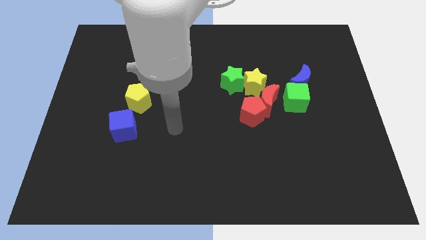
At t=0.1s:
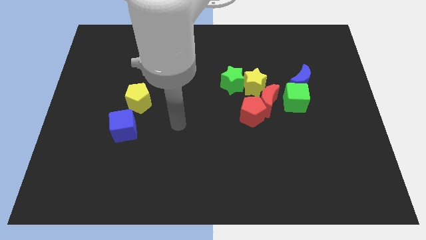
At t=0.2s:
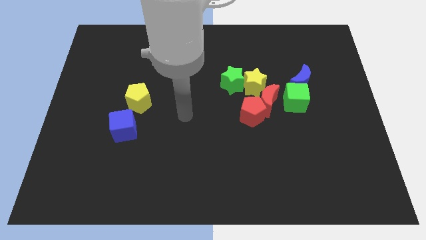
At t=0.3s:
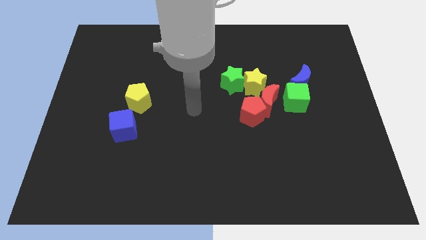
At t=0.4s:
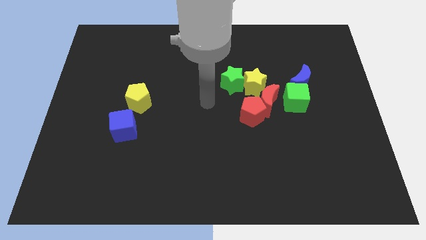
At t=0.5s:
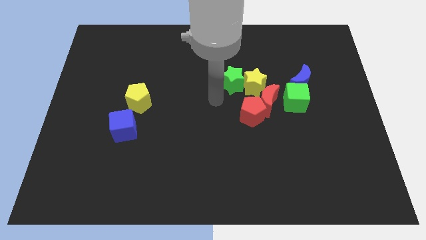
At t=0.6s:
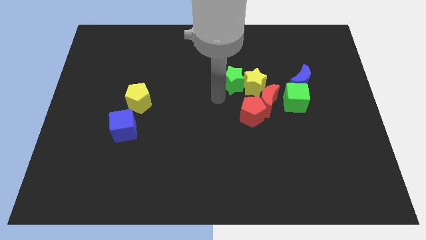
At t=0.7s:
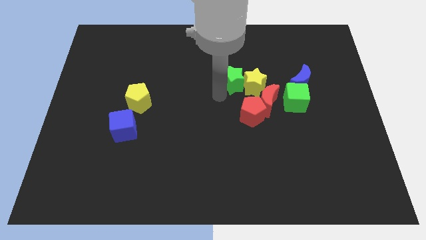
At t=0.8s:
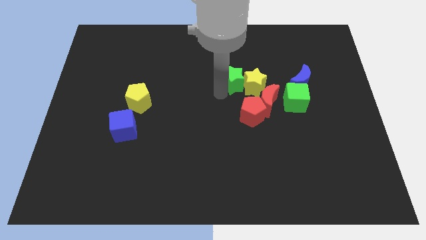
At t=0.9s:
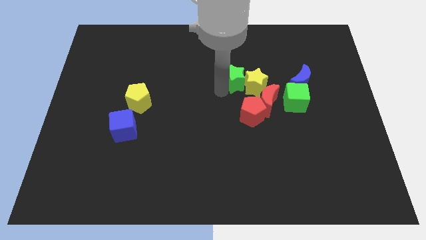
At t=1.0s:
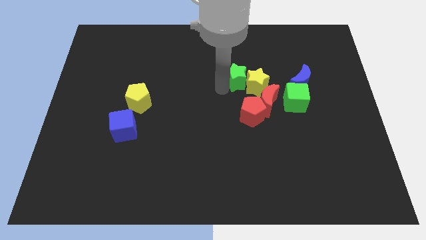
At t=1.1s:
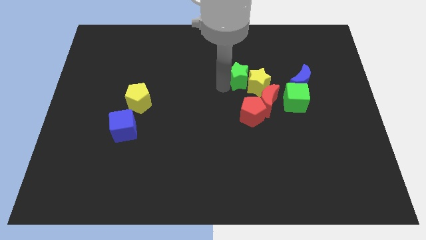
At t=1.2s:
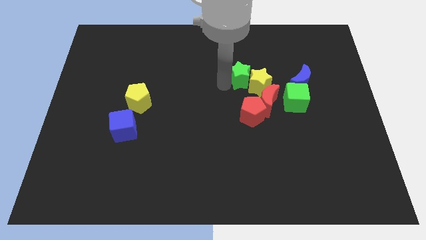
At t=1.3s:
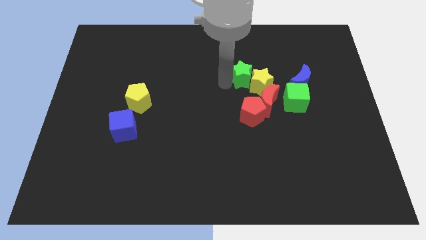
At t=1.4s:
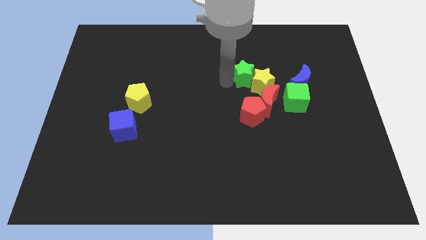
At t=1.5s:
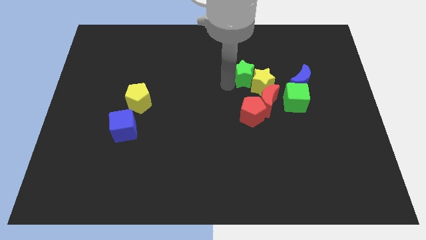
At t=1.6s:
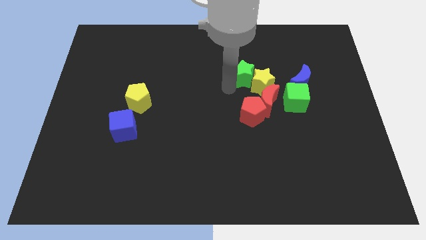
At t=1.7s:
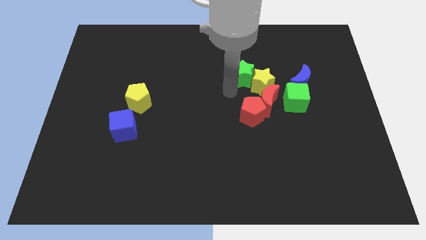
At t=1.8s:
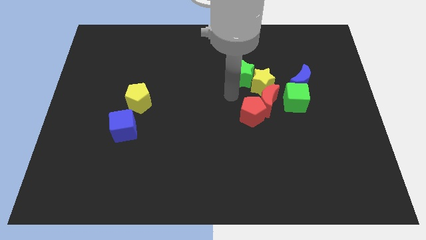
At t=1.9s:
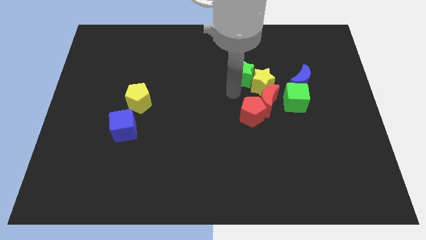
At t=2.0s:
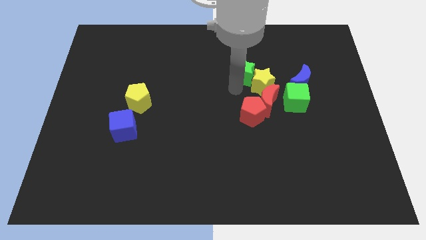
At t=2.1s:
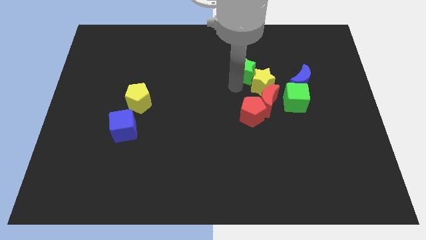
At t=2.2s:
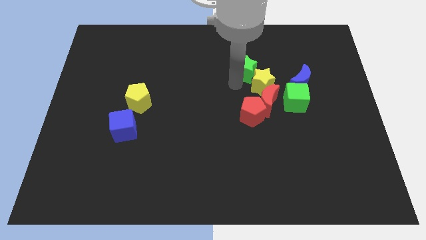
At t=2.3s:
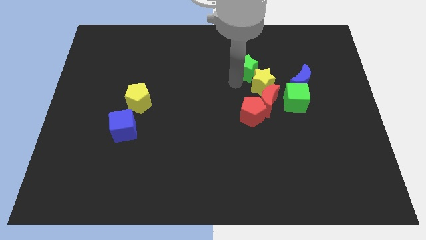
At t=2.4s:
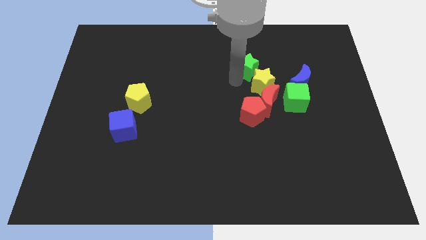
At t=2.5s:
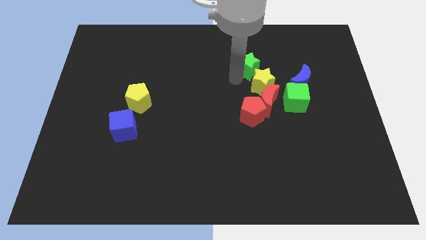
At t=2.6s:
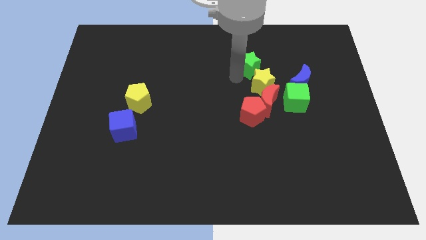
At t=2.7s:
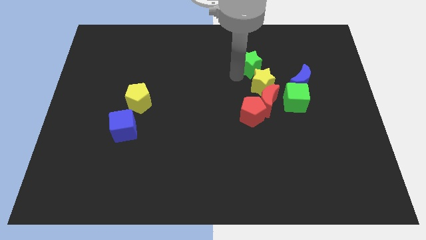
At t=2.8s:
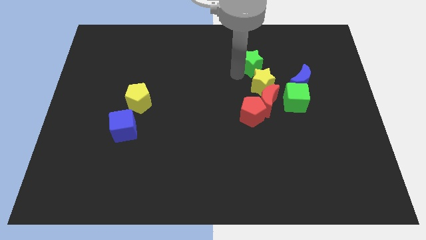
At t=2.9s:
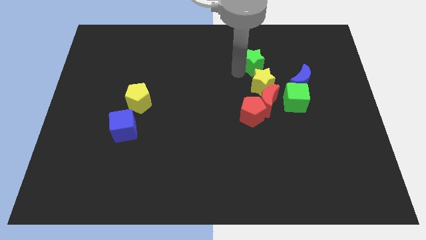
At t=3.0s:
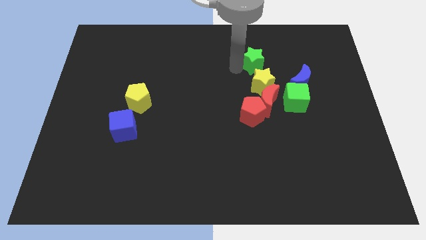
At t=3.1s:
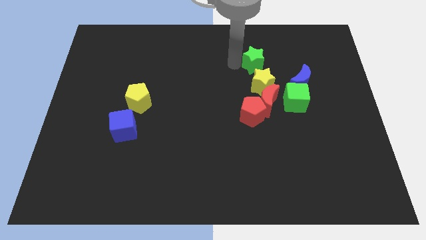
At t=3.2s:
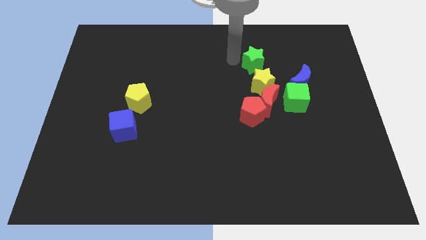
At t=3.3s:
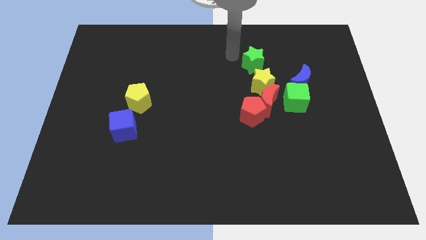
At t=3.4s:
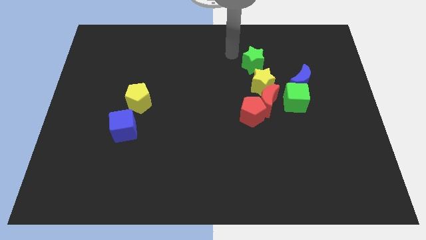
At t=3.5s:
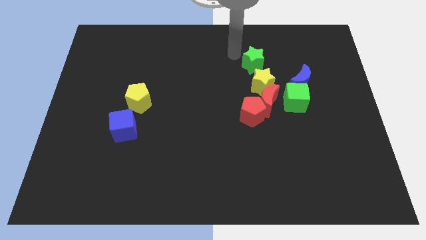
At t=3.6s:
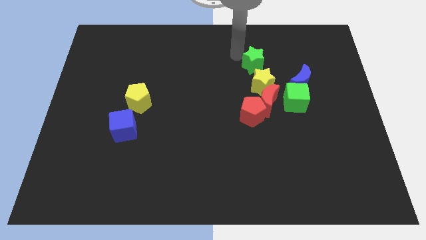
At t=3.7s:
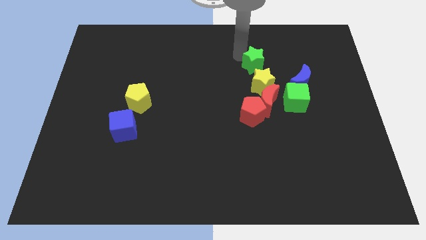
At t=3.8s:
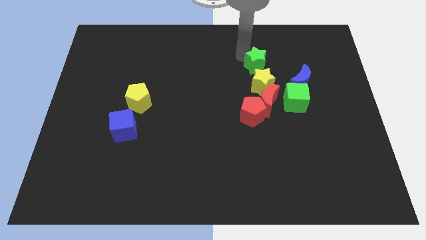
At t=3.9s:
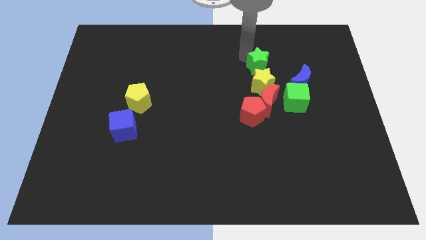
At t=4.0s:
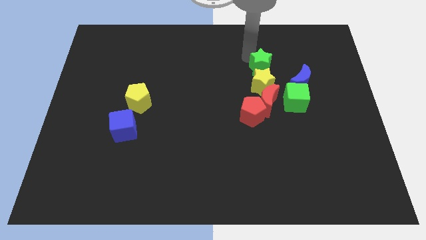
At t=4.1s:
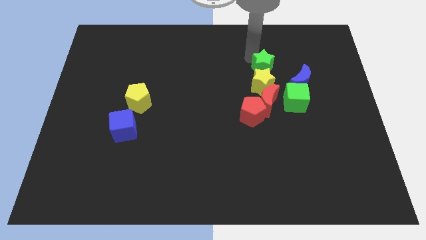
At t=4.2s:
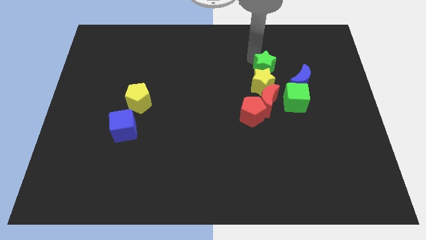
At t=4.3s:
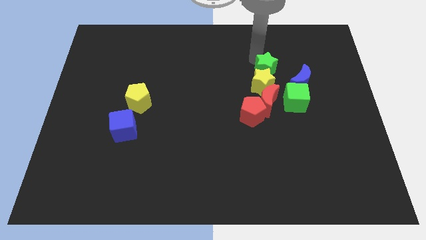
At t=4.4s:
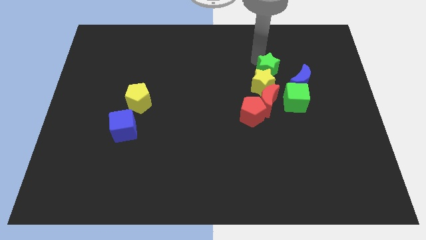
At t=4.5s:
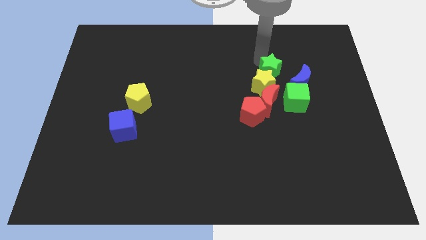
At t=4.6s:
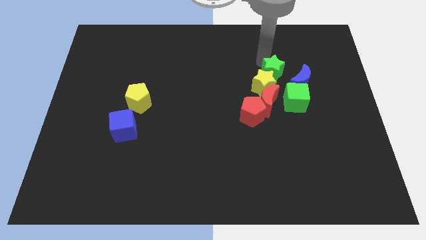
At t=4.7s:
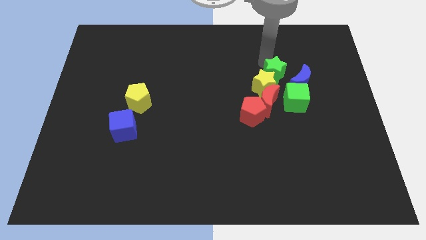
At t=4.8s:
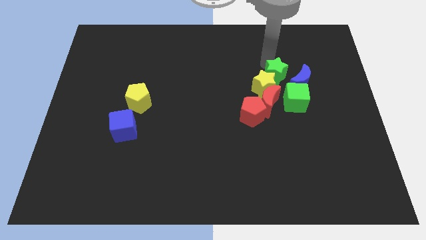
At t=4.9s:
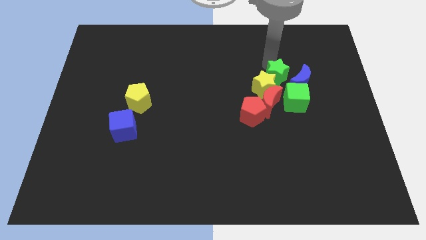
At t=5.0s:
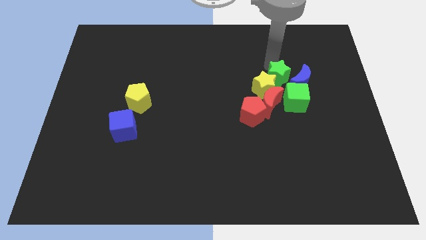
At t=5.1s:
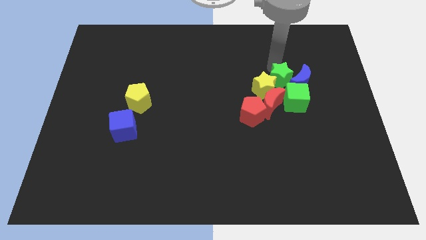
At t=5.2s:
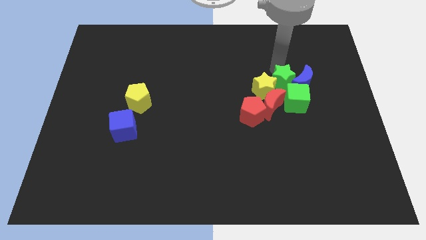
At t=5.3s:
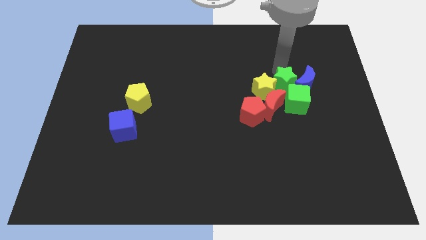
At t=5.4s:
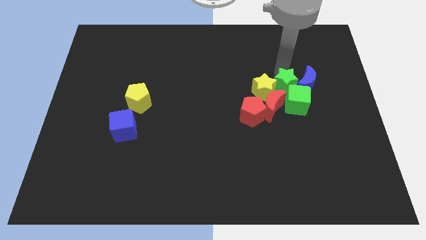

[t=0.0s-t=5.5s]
slide the green star towards the green cube

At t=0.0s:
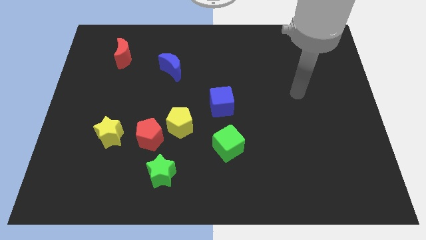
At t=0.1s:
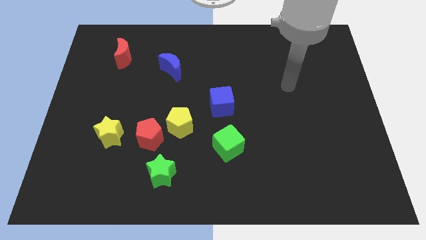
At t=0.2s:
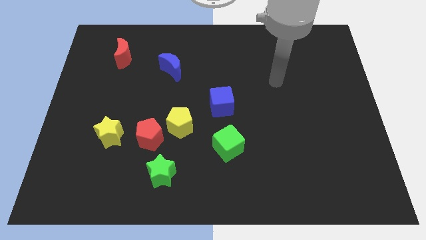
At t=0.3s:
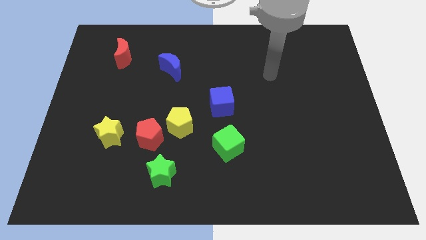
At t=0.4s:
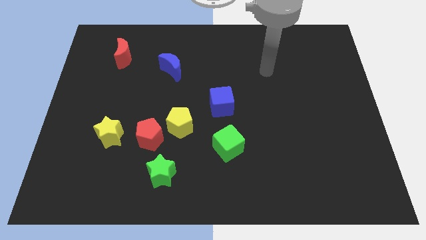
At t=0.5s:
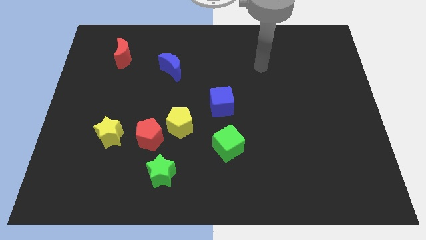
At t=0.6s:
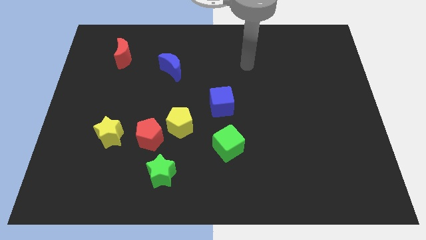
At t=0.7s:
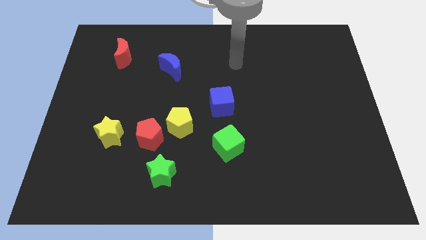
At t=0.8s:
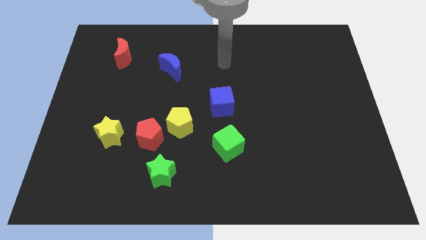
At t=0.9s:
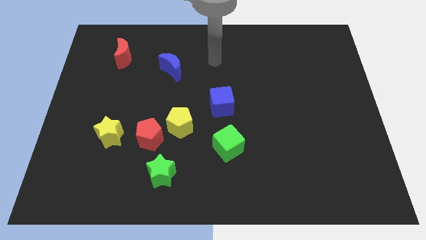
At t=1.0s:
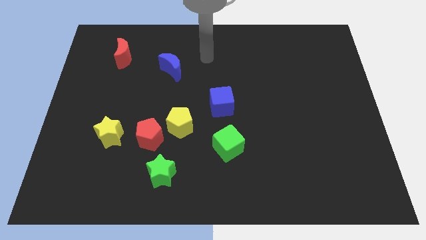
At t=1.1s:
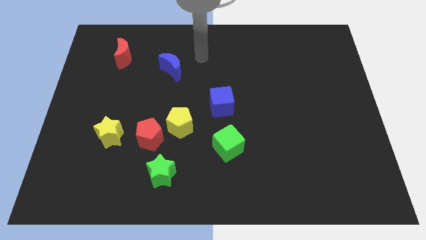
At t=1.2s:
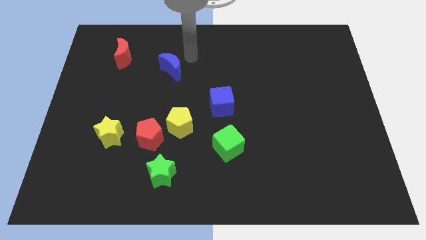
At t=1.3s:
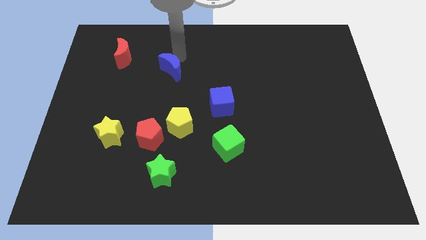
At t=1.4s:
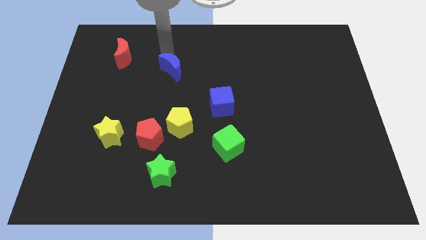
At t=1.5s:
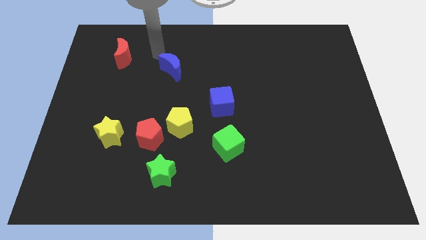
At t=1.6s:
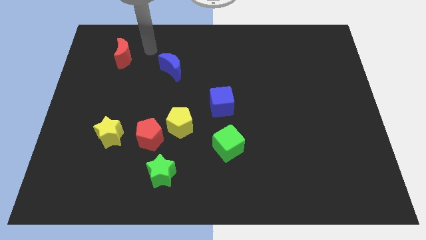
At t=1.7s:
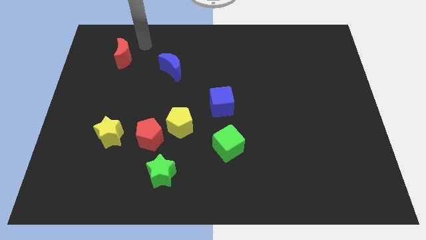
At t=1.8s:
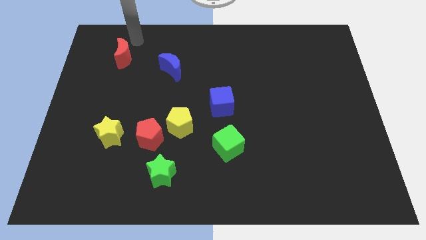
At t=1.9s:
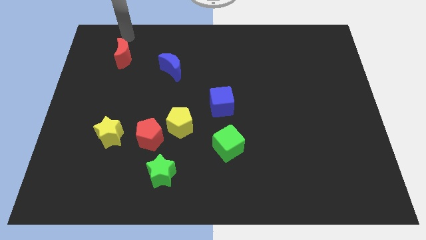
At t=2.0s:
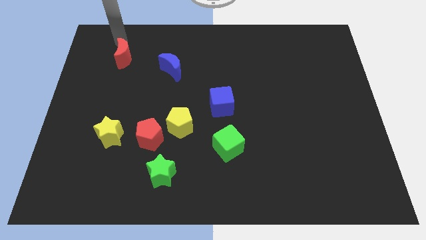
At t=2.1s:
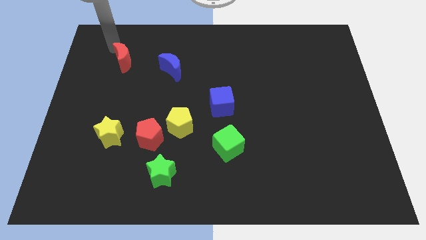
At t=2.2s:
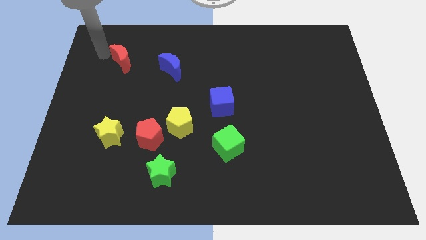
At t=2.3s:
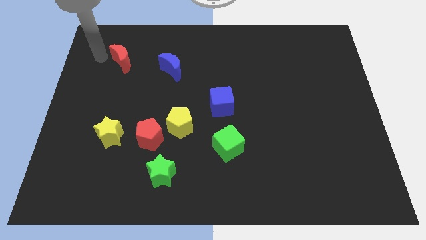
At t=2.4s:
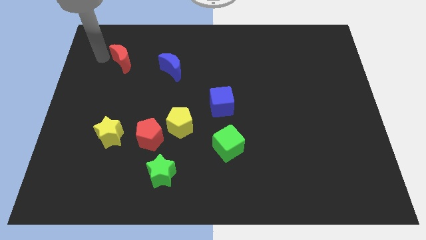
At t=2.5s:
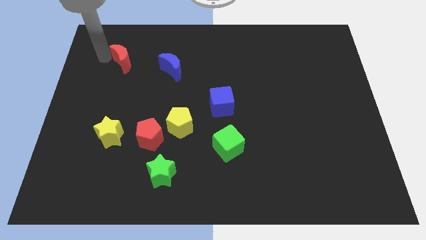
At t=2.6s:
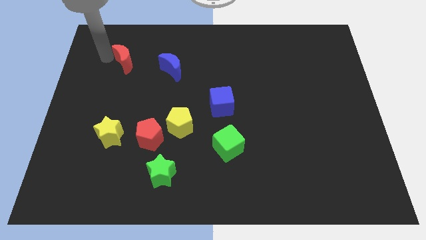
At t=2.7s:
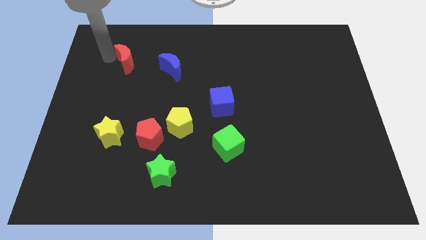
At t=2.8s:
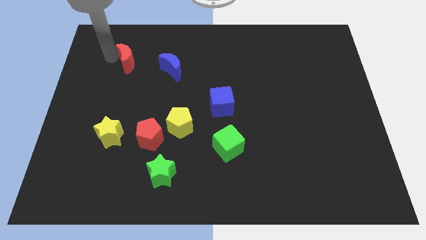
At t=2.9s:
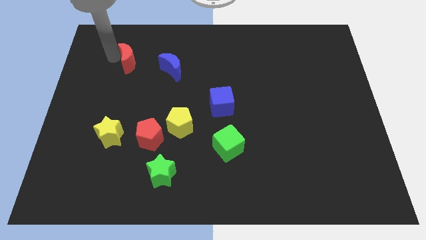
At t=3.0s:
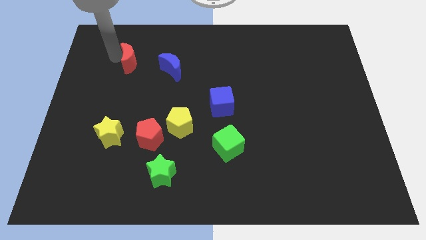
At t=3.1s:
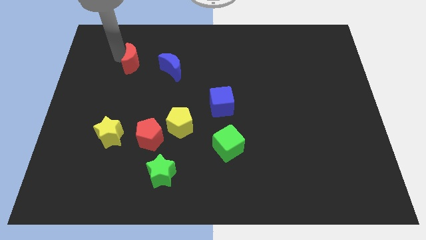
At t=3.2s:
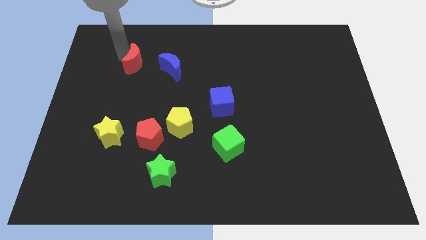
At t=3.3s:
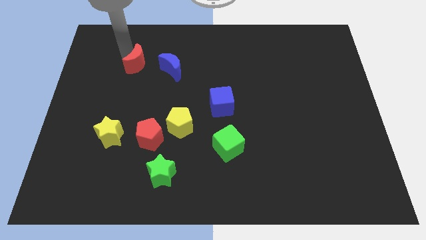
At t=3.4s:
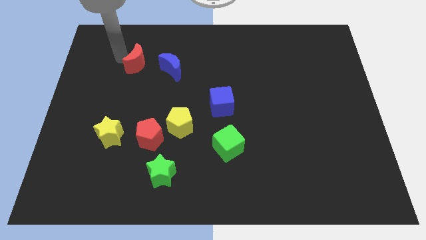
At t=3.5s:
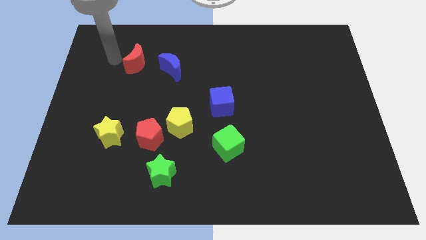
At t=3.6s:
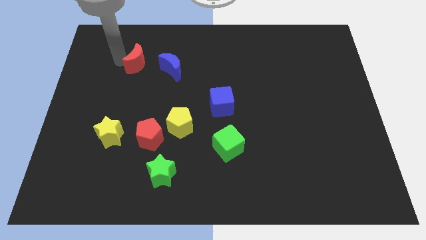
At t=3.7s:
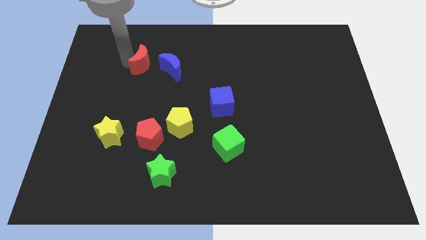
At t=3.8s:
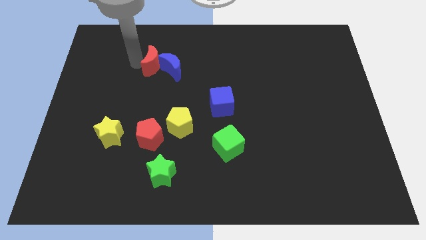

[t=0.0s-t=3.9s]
slide the red moon to the blue moon
